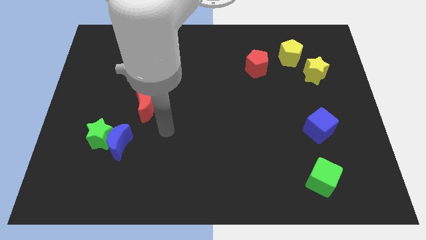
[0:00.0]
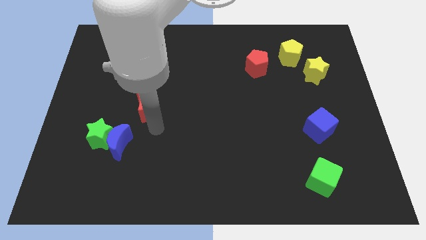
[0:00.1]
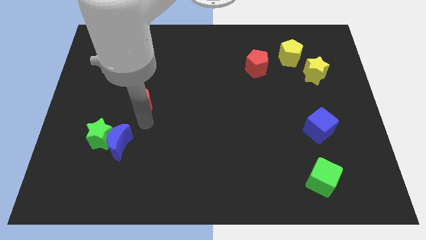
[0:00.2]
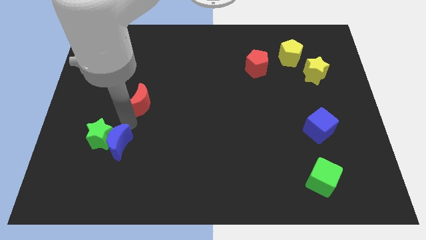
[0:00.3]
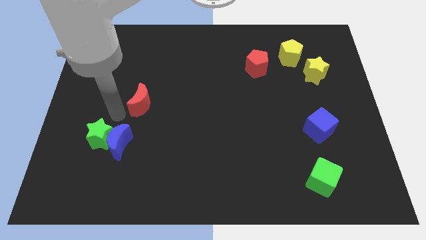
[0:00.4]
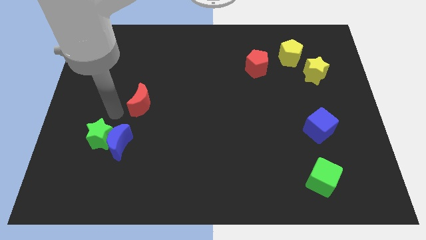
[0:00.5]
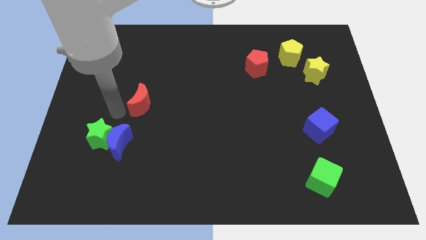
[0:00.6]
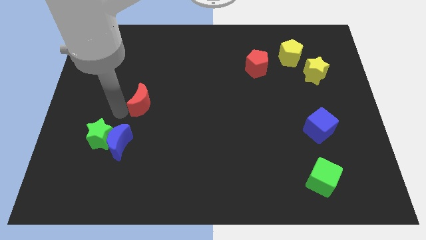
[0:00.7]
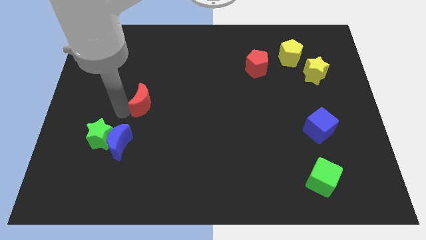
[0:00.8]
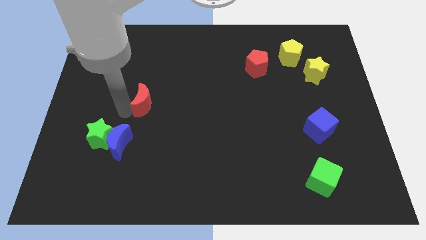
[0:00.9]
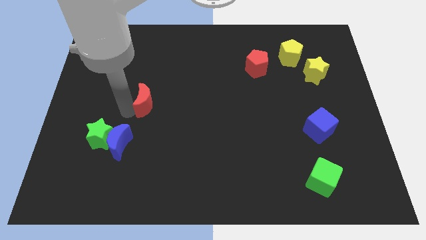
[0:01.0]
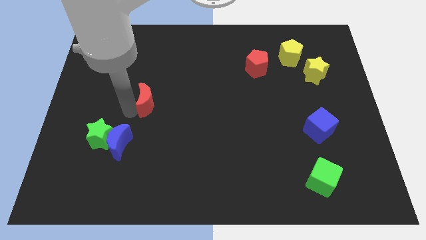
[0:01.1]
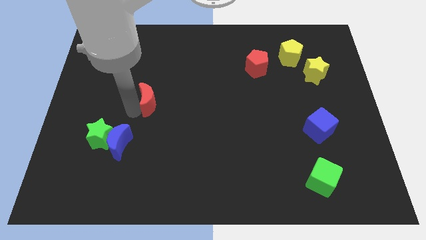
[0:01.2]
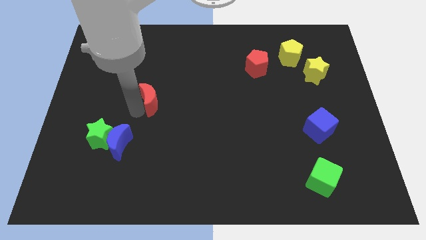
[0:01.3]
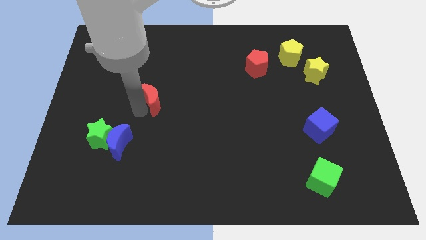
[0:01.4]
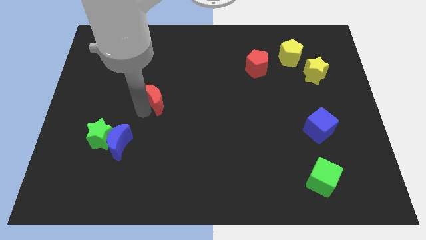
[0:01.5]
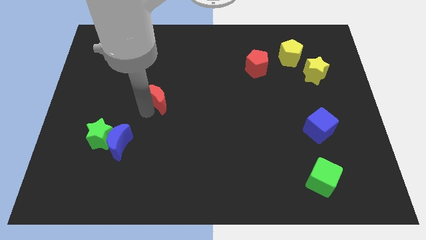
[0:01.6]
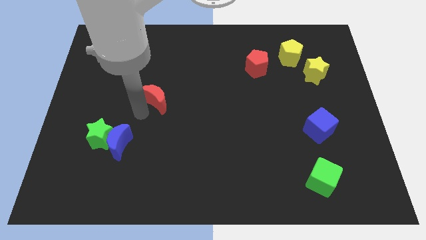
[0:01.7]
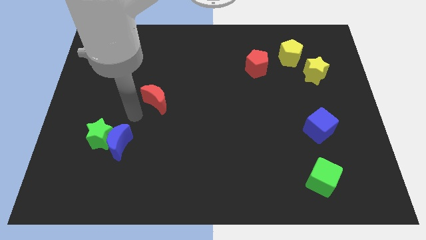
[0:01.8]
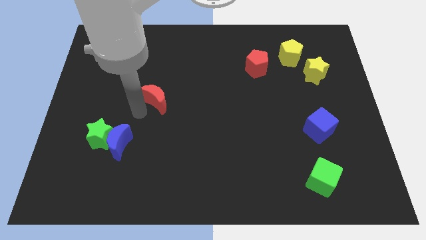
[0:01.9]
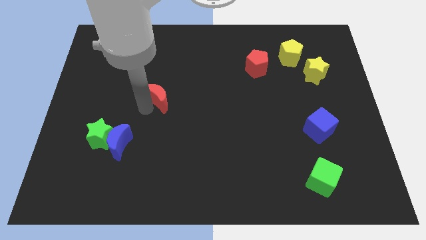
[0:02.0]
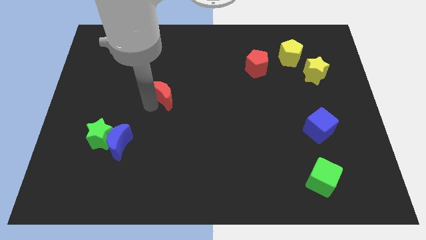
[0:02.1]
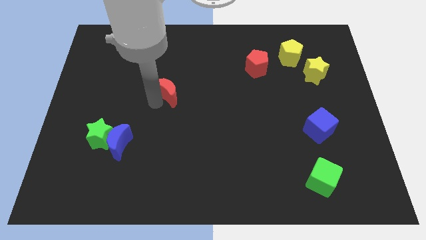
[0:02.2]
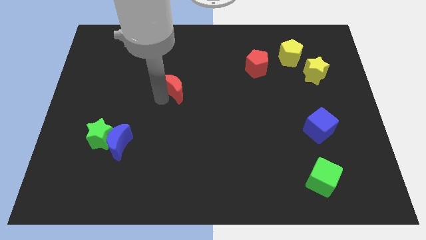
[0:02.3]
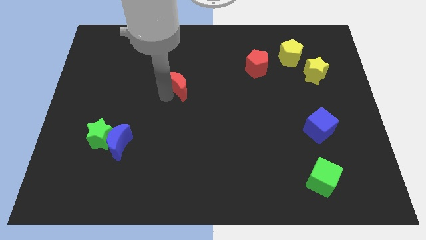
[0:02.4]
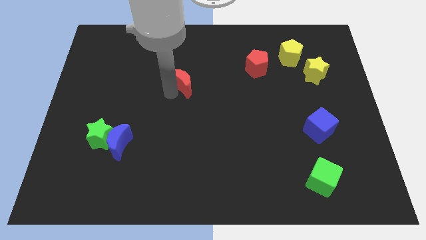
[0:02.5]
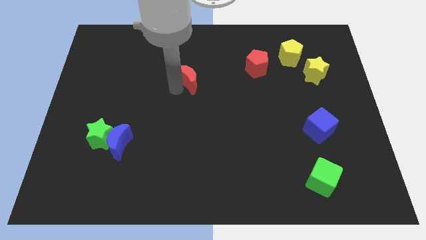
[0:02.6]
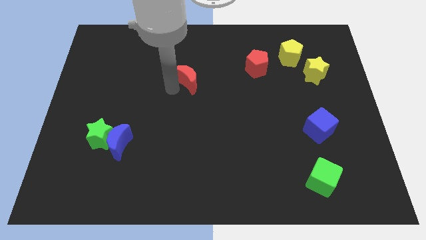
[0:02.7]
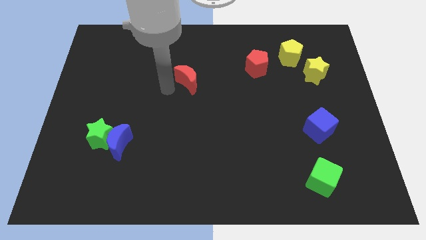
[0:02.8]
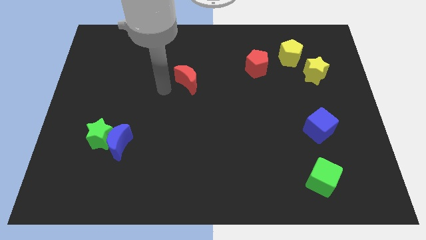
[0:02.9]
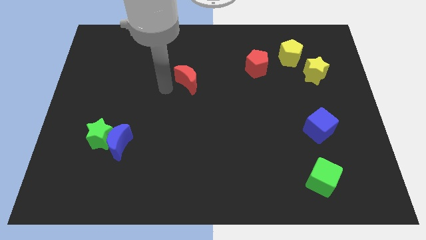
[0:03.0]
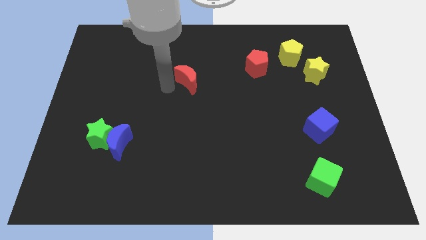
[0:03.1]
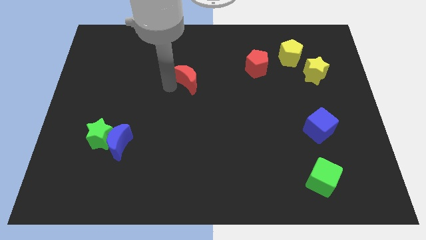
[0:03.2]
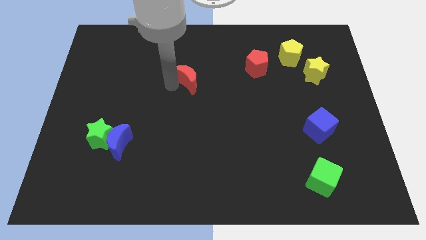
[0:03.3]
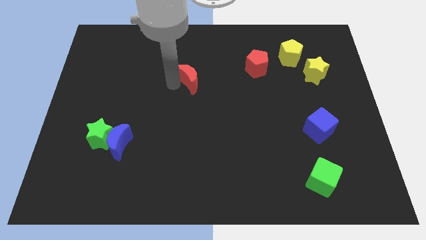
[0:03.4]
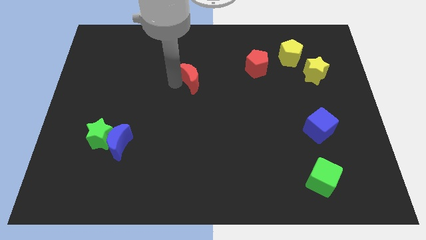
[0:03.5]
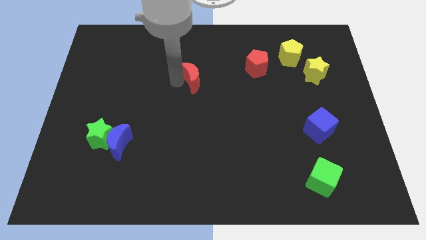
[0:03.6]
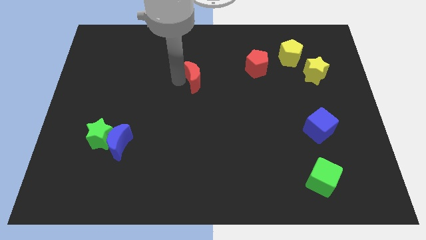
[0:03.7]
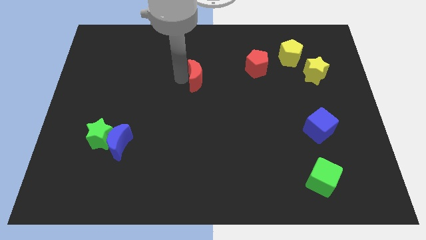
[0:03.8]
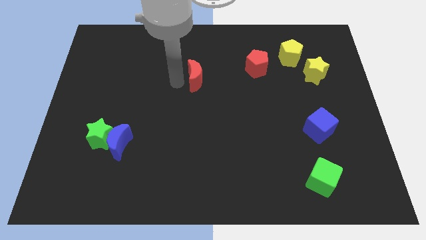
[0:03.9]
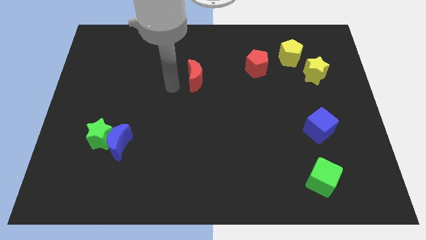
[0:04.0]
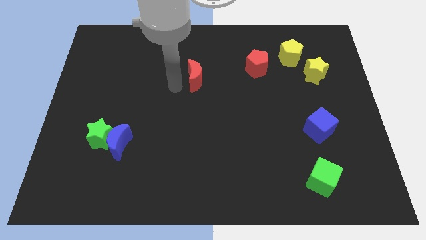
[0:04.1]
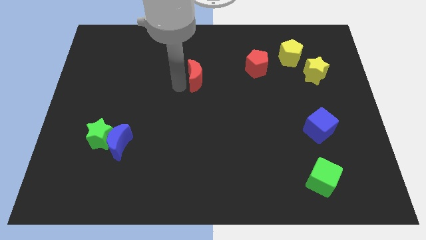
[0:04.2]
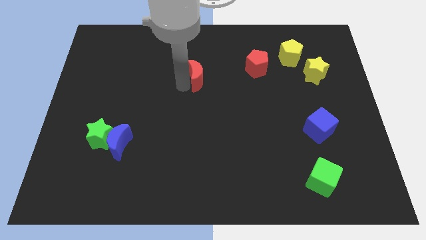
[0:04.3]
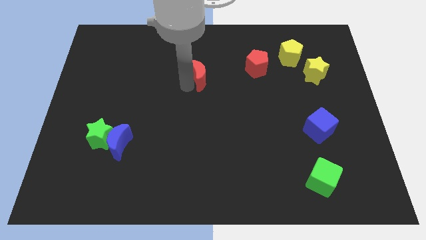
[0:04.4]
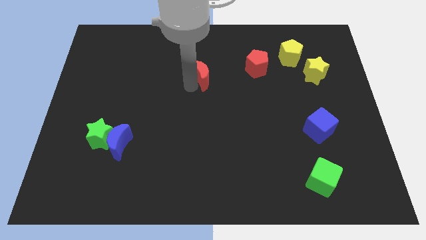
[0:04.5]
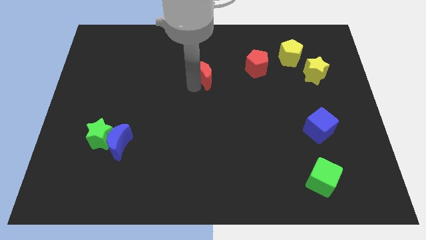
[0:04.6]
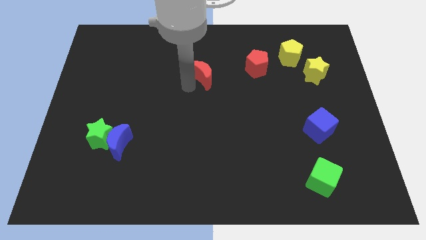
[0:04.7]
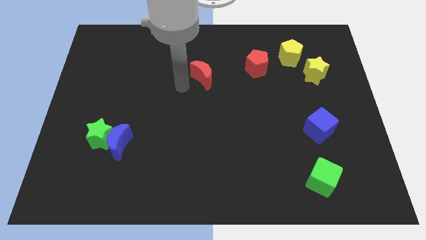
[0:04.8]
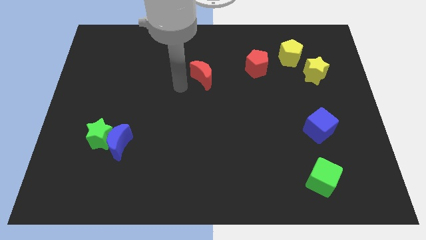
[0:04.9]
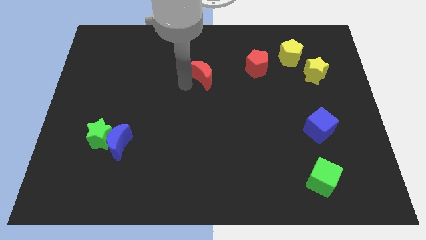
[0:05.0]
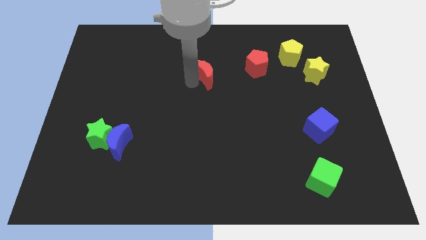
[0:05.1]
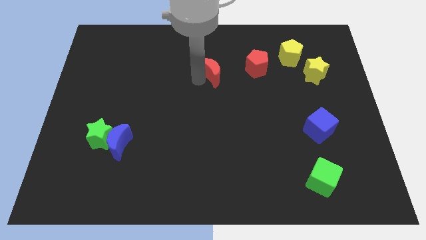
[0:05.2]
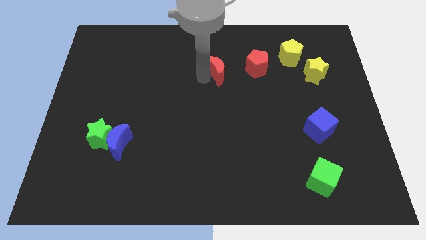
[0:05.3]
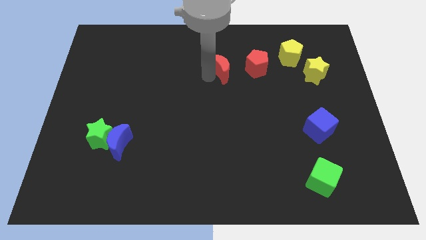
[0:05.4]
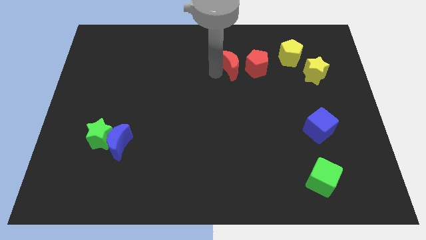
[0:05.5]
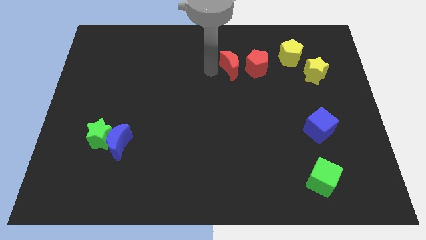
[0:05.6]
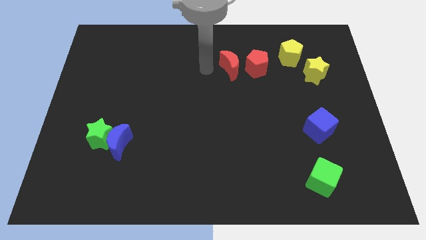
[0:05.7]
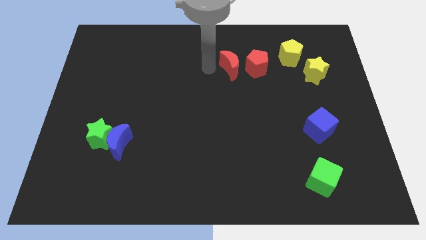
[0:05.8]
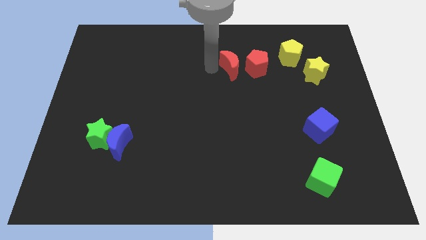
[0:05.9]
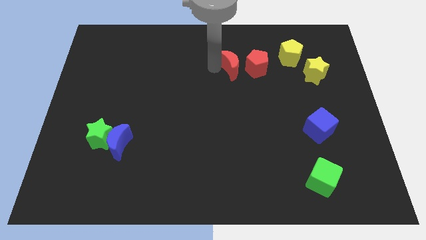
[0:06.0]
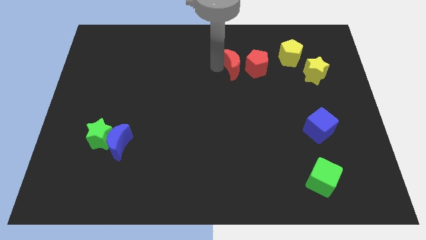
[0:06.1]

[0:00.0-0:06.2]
put the red moon towards the red pentagon

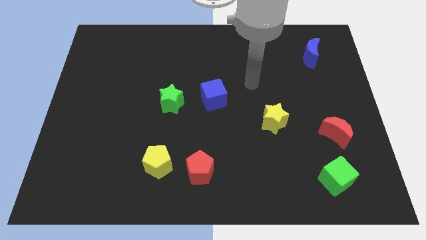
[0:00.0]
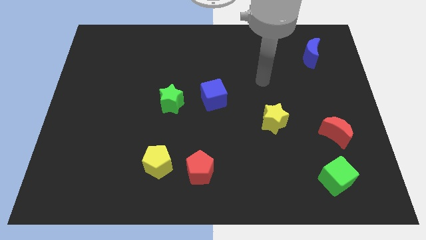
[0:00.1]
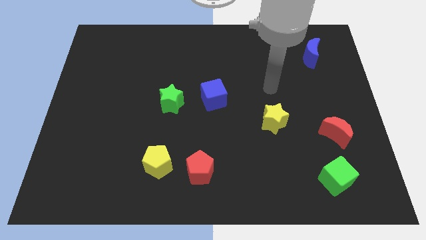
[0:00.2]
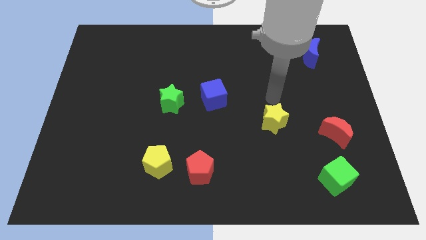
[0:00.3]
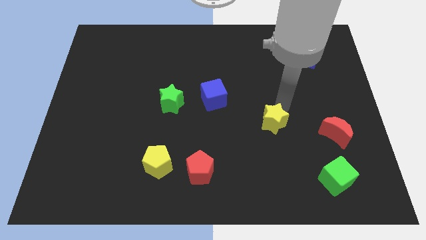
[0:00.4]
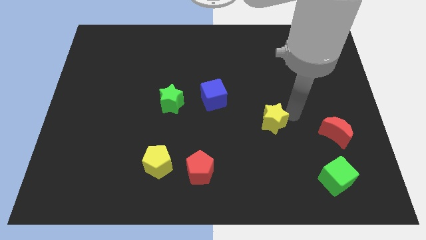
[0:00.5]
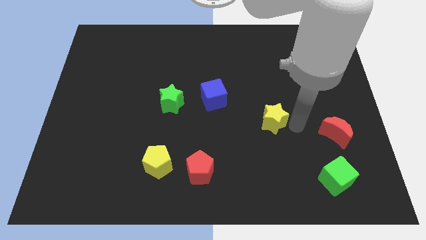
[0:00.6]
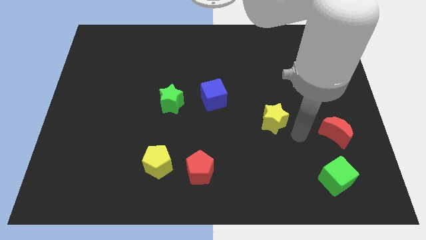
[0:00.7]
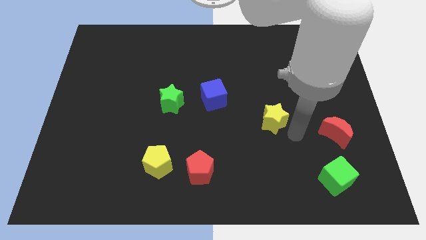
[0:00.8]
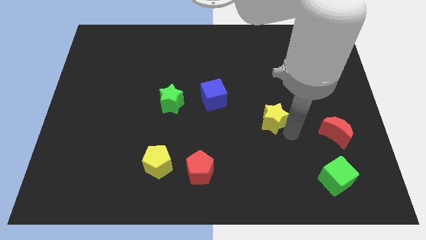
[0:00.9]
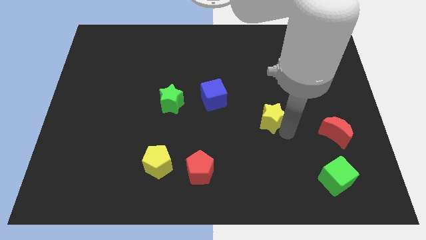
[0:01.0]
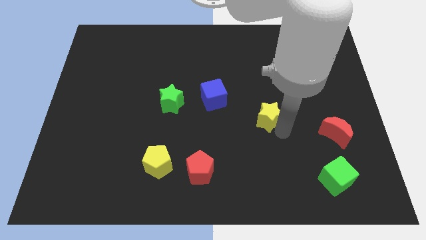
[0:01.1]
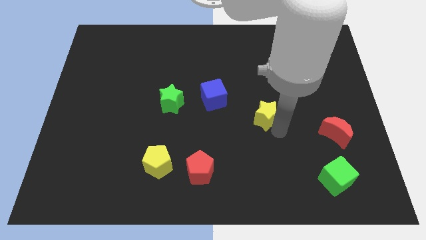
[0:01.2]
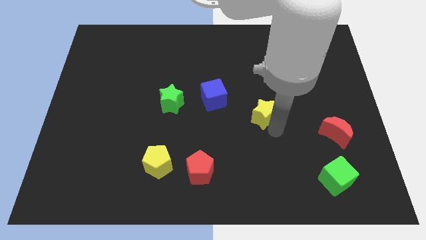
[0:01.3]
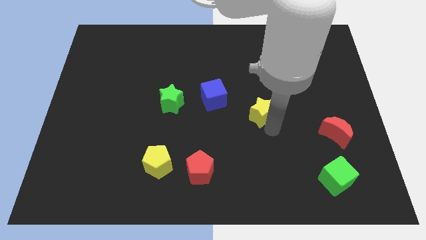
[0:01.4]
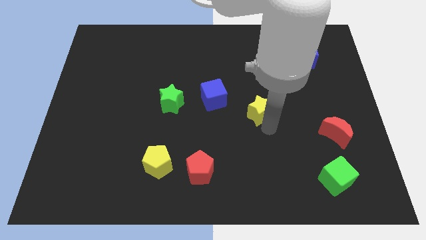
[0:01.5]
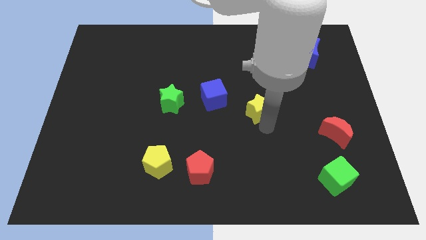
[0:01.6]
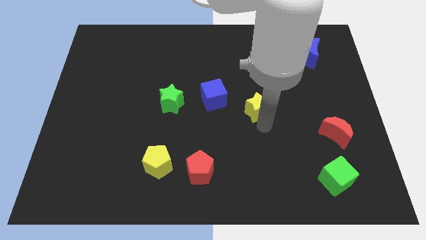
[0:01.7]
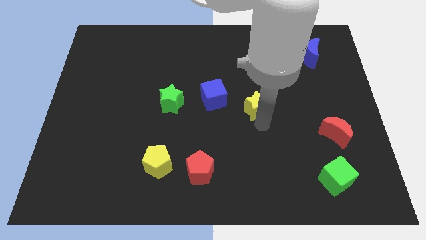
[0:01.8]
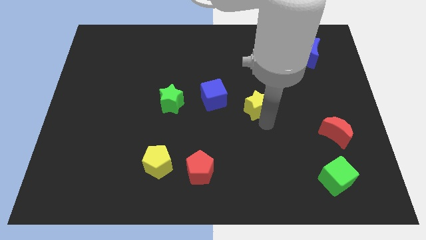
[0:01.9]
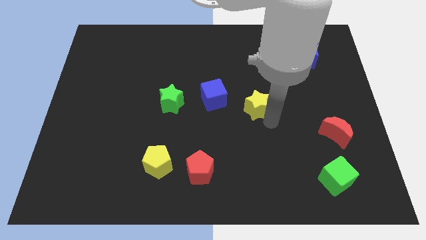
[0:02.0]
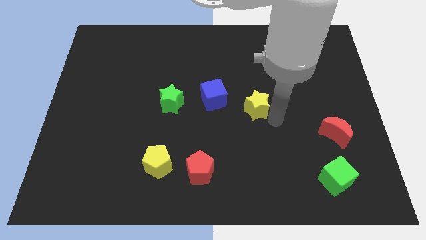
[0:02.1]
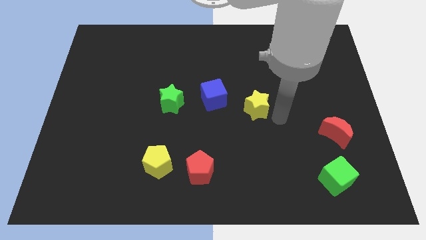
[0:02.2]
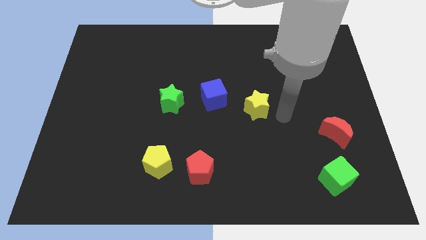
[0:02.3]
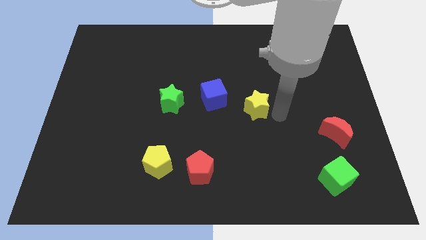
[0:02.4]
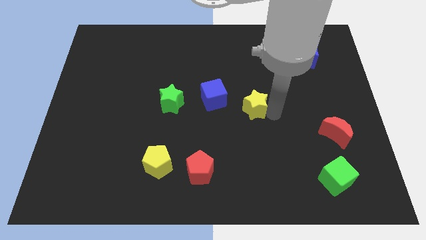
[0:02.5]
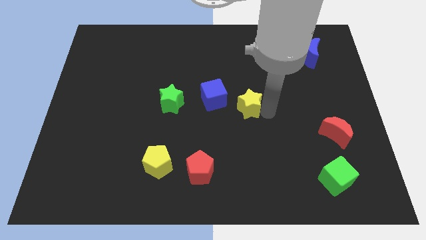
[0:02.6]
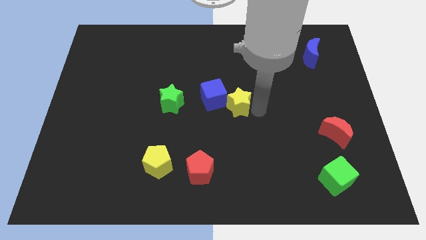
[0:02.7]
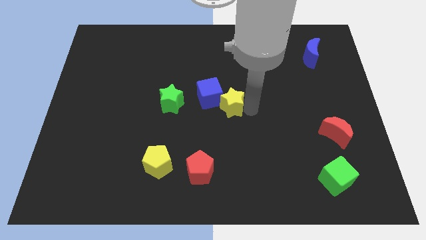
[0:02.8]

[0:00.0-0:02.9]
move the yellow star towards the blue cube
